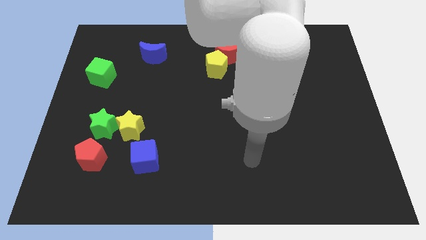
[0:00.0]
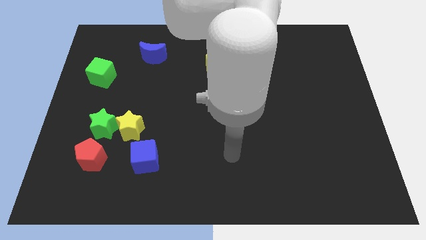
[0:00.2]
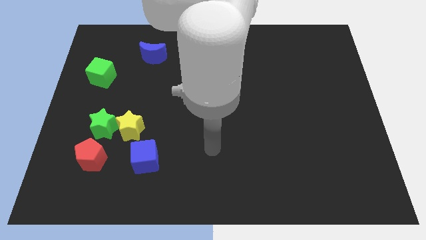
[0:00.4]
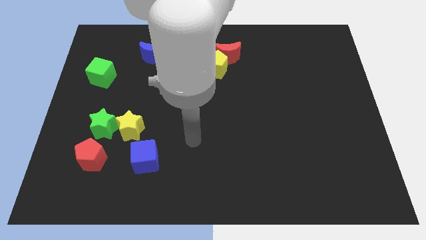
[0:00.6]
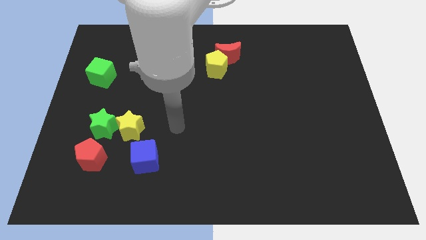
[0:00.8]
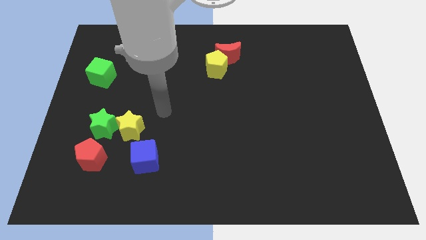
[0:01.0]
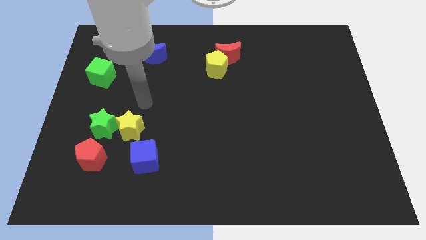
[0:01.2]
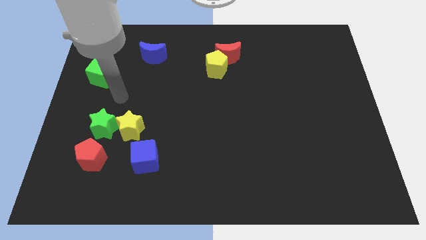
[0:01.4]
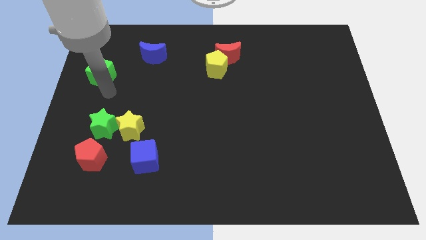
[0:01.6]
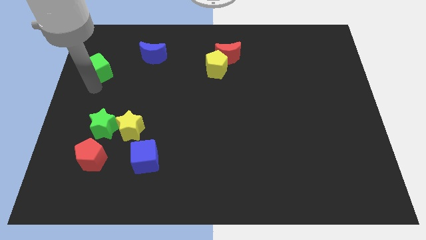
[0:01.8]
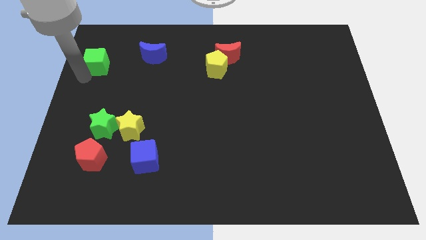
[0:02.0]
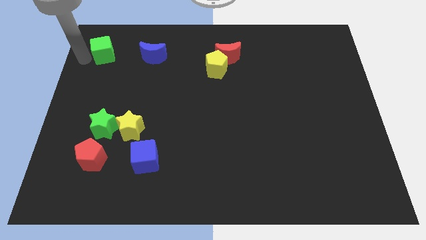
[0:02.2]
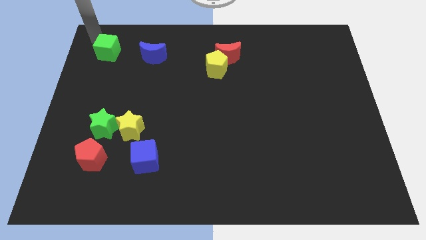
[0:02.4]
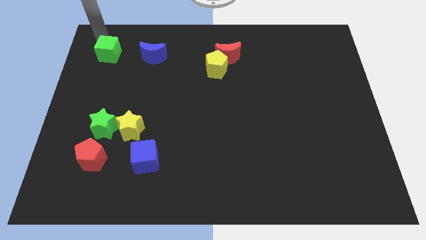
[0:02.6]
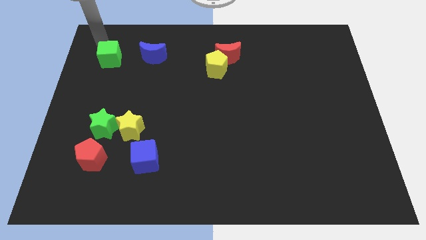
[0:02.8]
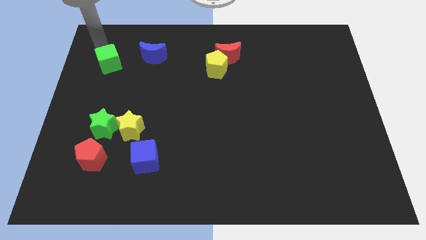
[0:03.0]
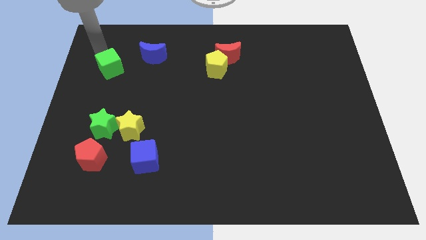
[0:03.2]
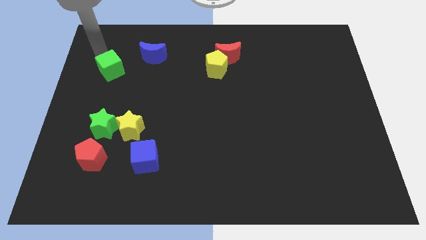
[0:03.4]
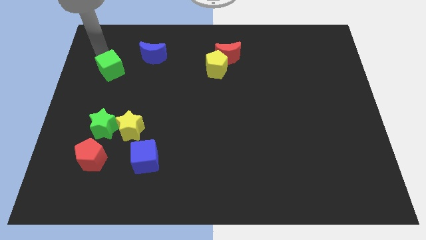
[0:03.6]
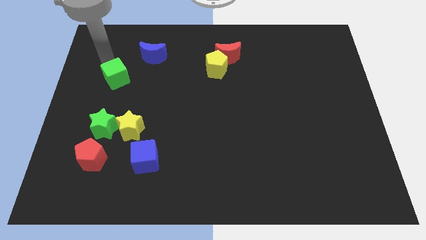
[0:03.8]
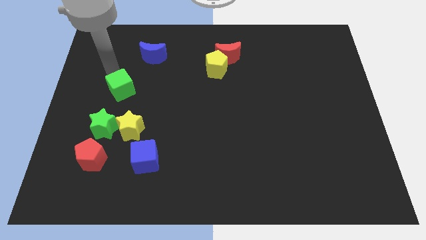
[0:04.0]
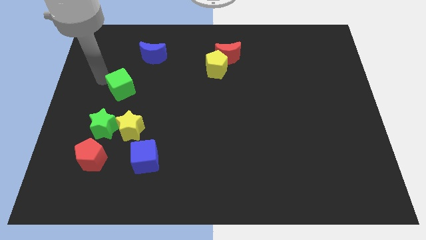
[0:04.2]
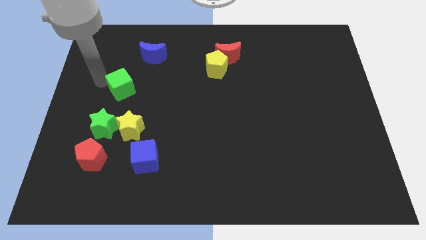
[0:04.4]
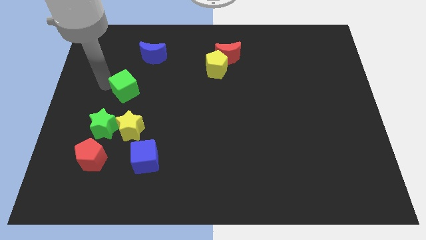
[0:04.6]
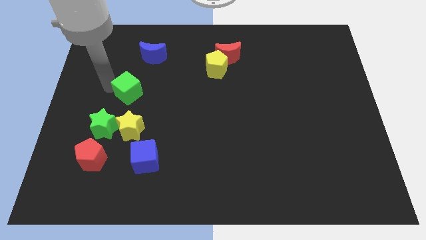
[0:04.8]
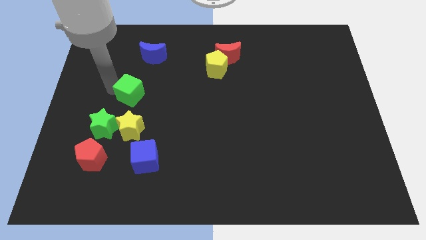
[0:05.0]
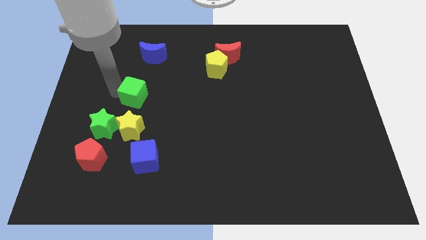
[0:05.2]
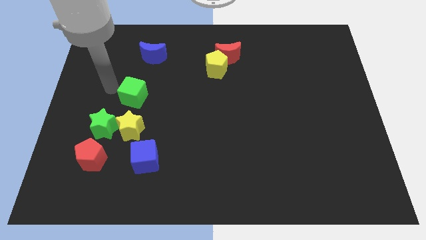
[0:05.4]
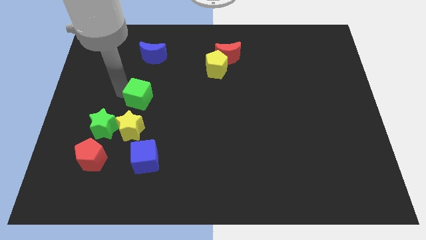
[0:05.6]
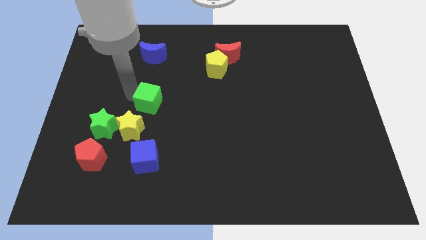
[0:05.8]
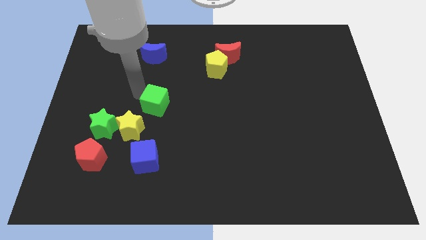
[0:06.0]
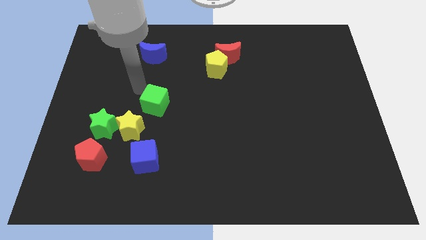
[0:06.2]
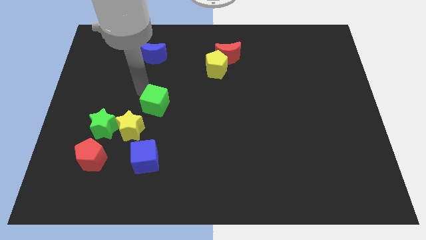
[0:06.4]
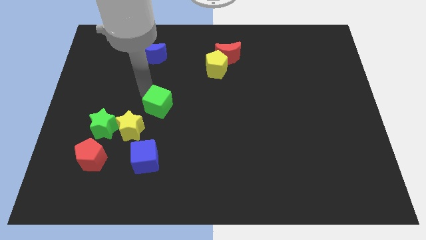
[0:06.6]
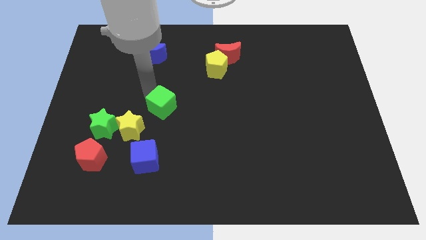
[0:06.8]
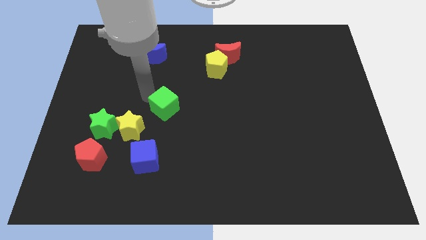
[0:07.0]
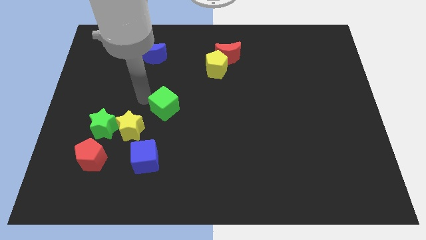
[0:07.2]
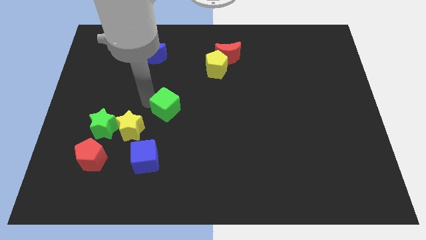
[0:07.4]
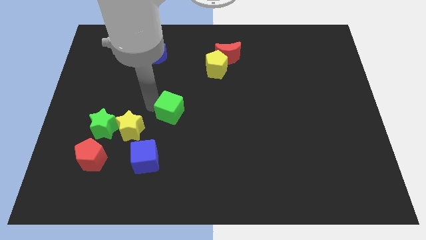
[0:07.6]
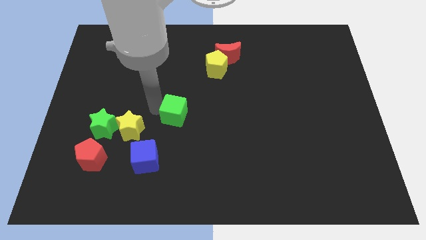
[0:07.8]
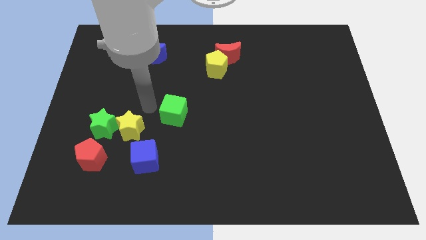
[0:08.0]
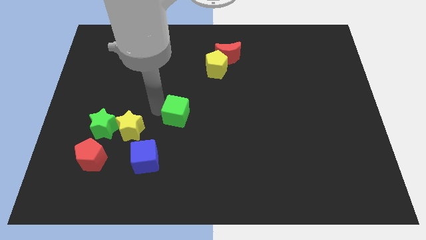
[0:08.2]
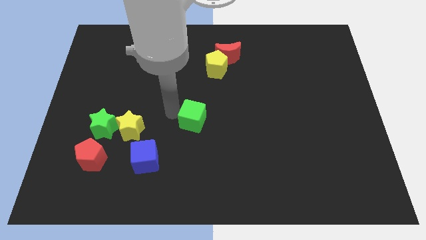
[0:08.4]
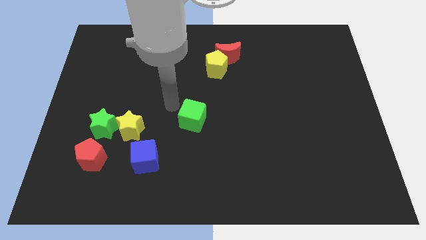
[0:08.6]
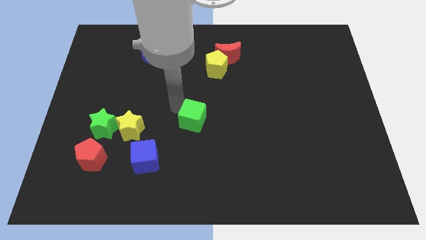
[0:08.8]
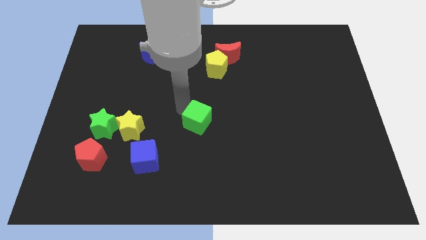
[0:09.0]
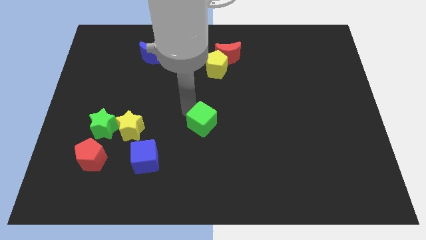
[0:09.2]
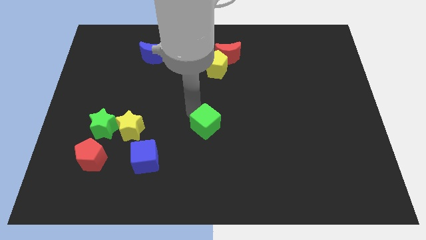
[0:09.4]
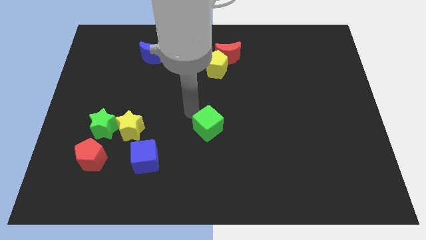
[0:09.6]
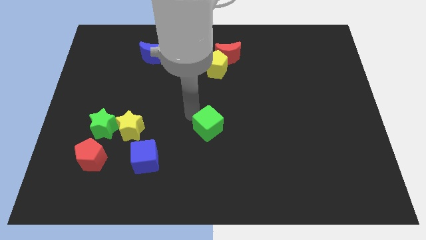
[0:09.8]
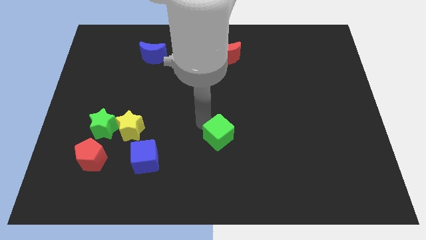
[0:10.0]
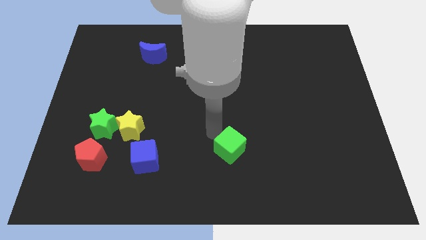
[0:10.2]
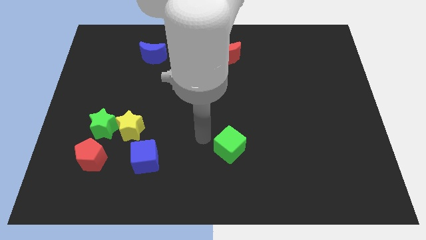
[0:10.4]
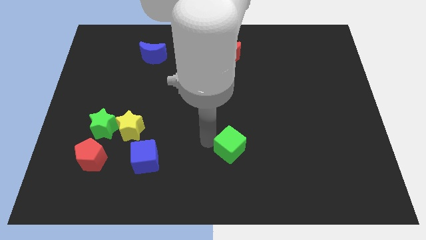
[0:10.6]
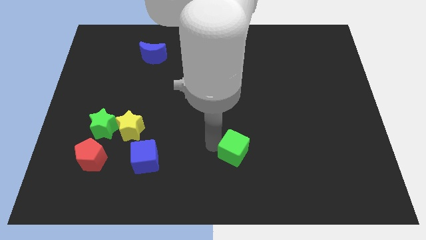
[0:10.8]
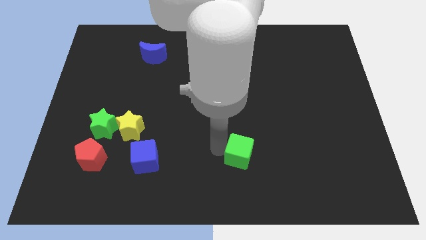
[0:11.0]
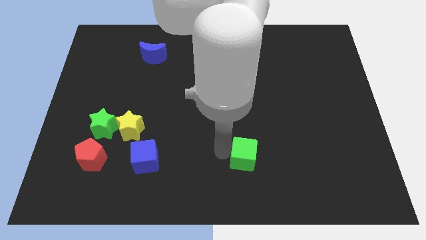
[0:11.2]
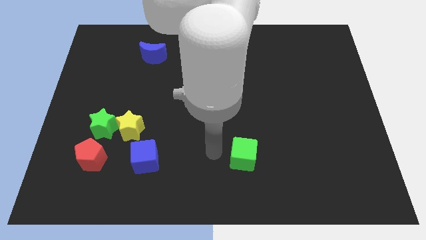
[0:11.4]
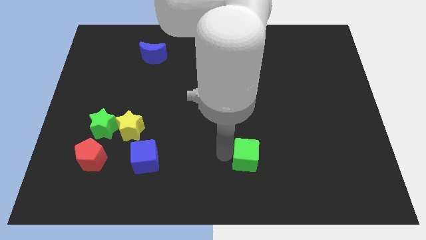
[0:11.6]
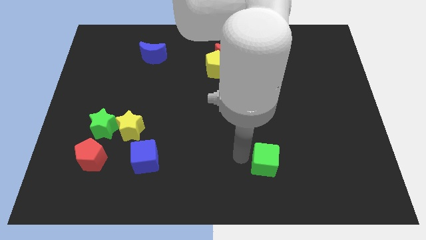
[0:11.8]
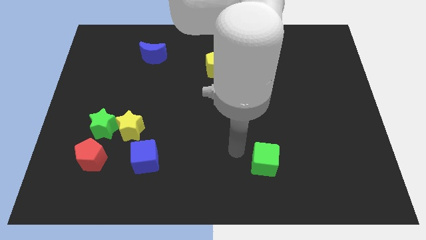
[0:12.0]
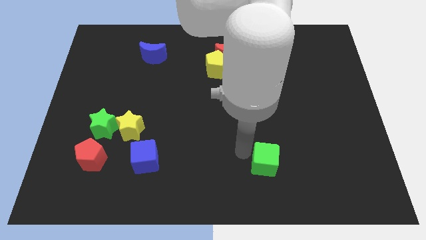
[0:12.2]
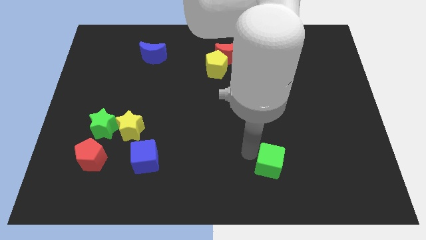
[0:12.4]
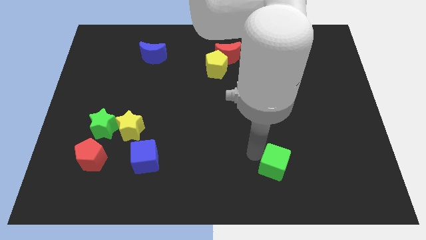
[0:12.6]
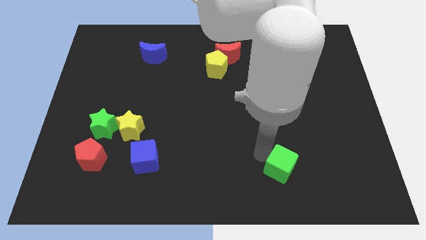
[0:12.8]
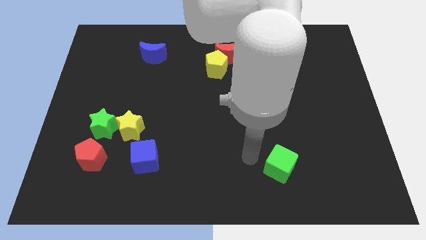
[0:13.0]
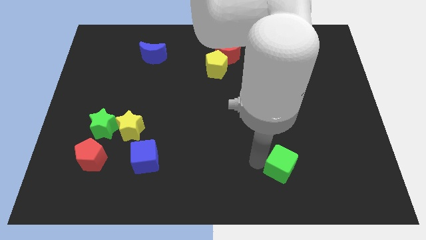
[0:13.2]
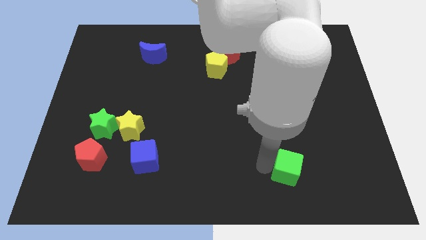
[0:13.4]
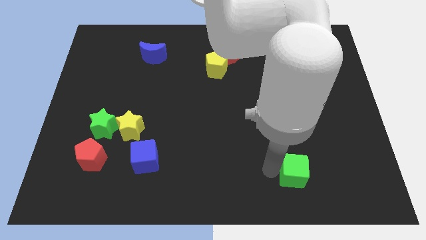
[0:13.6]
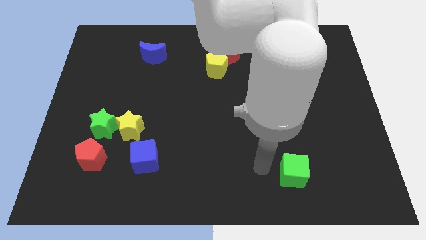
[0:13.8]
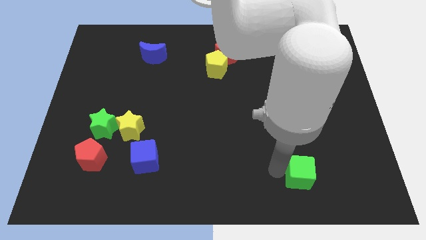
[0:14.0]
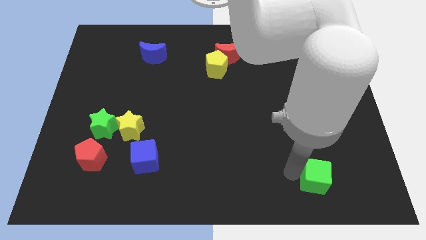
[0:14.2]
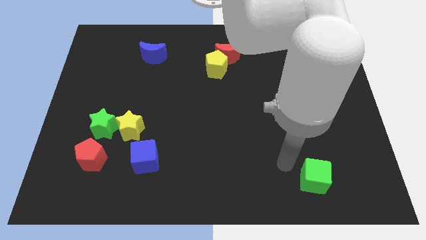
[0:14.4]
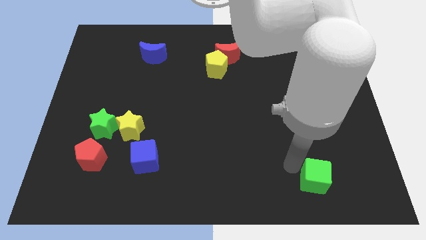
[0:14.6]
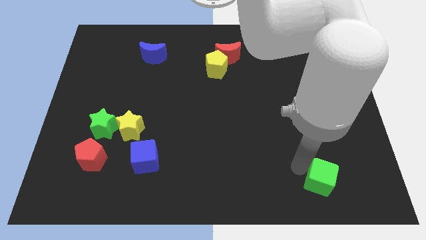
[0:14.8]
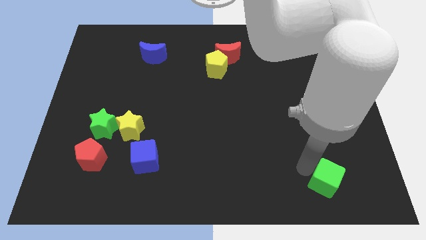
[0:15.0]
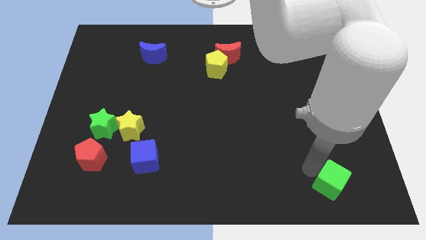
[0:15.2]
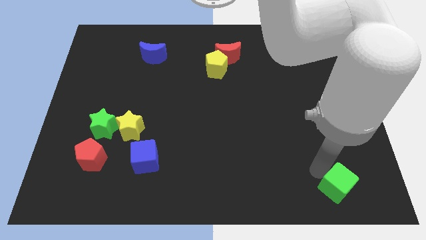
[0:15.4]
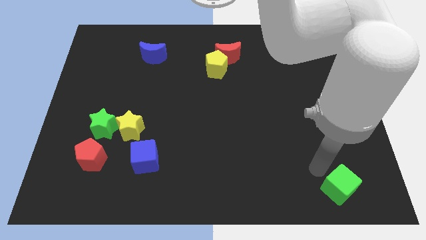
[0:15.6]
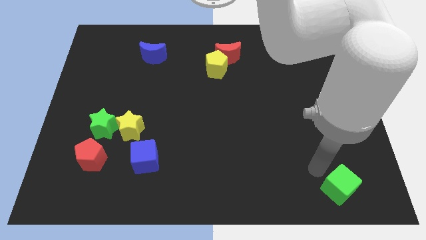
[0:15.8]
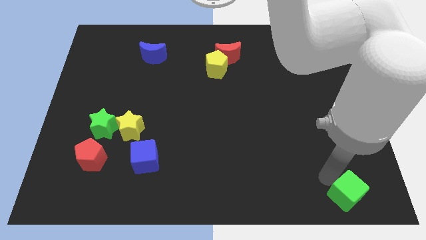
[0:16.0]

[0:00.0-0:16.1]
slide the green cube to the bottom right
